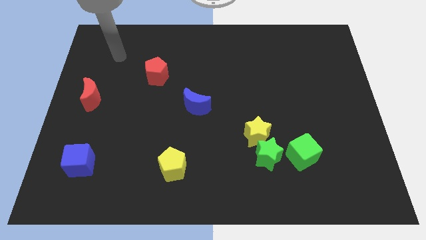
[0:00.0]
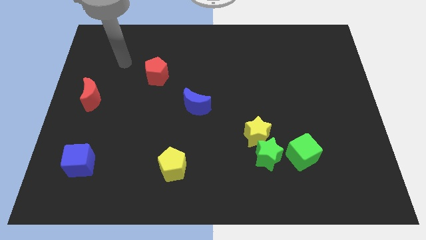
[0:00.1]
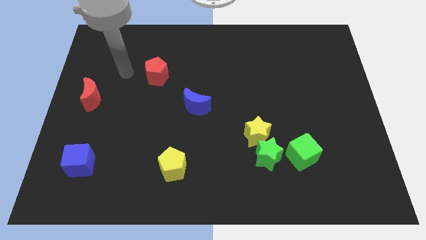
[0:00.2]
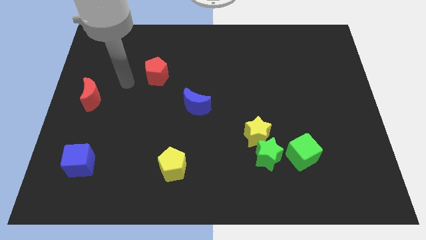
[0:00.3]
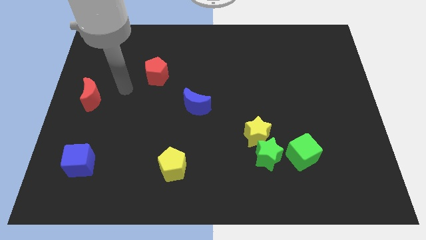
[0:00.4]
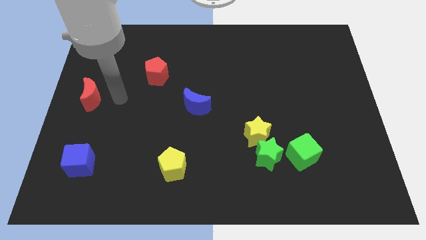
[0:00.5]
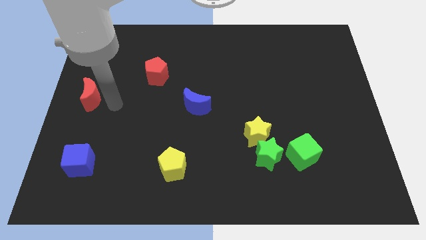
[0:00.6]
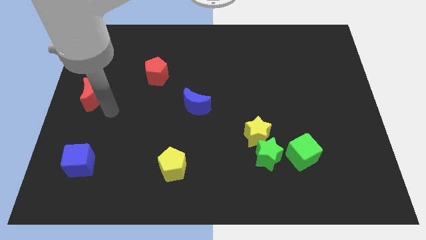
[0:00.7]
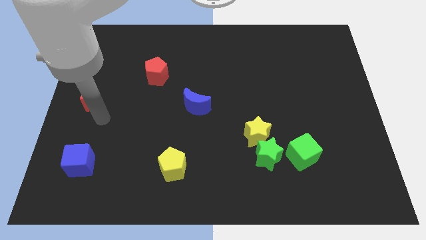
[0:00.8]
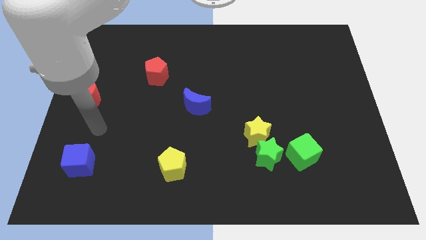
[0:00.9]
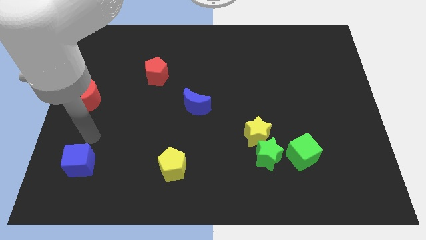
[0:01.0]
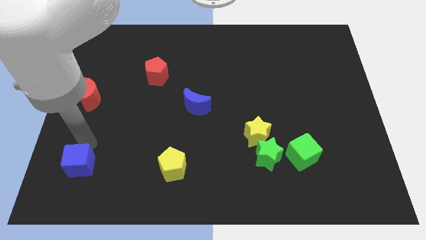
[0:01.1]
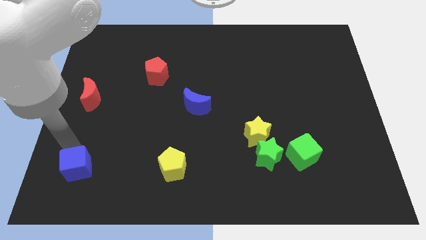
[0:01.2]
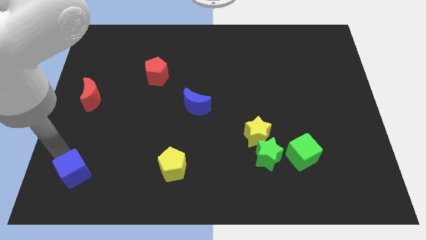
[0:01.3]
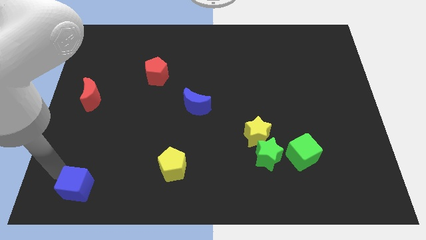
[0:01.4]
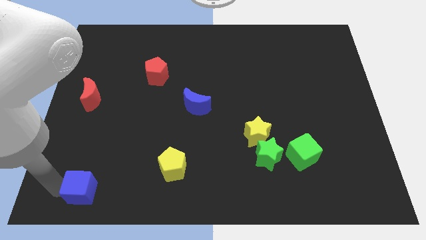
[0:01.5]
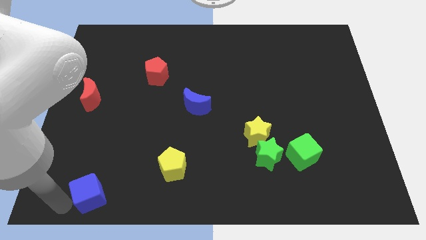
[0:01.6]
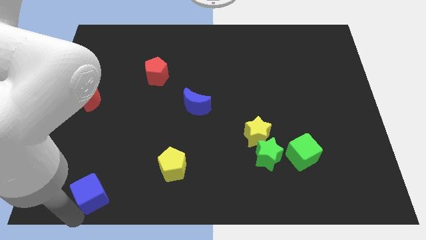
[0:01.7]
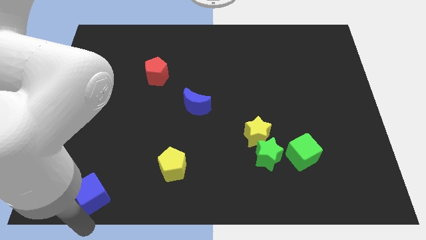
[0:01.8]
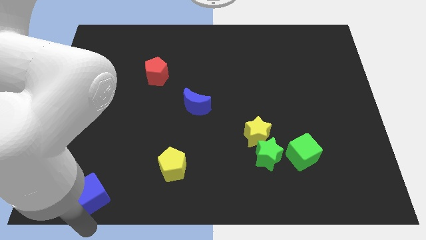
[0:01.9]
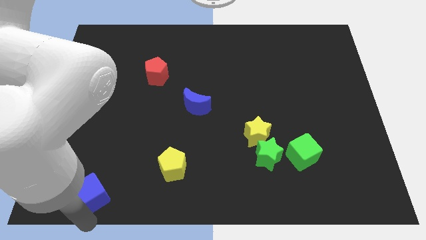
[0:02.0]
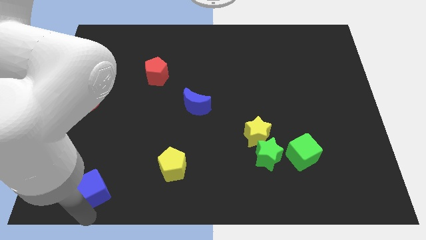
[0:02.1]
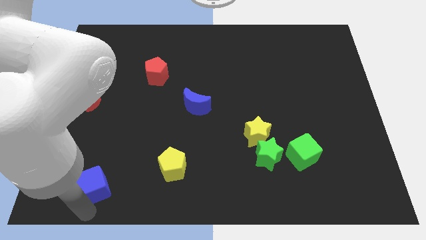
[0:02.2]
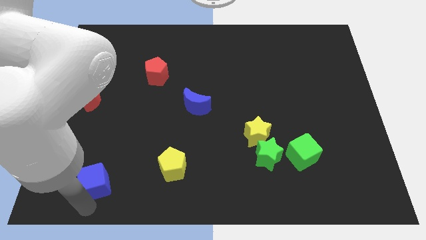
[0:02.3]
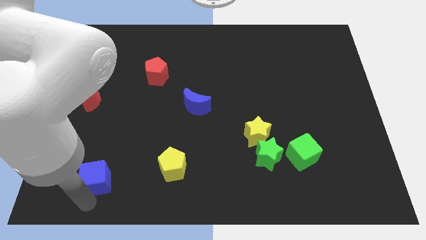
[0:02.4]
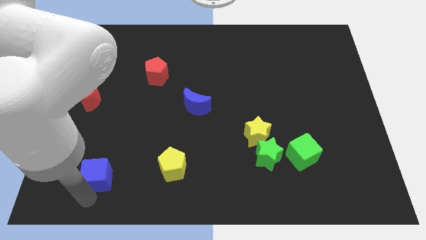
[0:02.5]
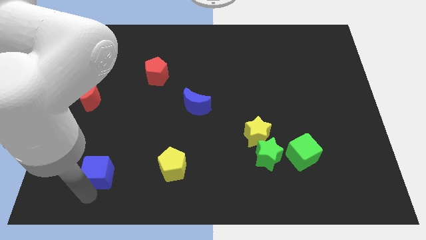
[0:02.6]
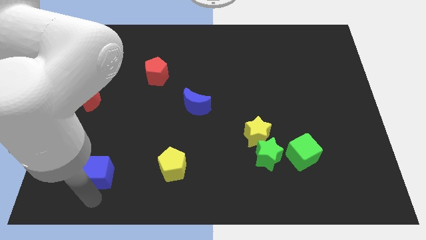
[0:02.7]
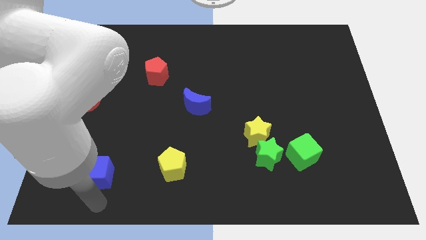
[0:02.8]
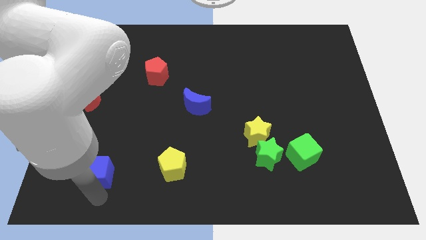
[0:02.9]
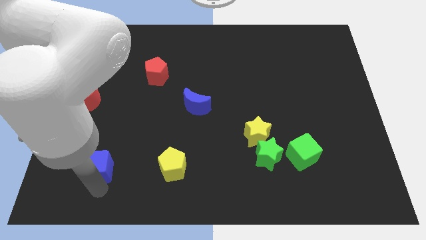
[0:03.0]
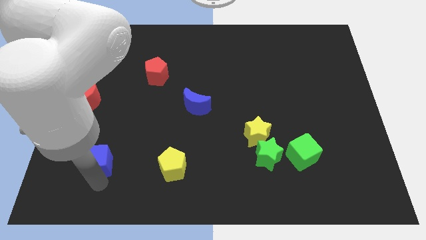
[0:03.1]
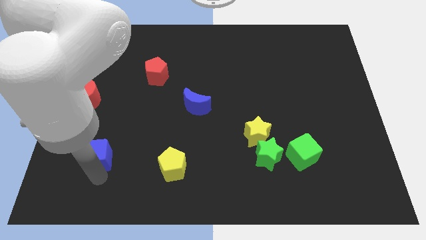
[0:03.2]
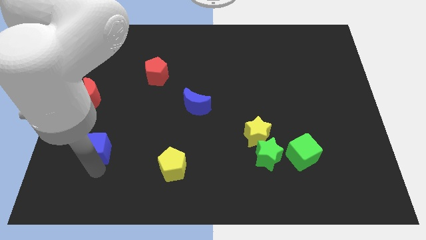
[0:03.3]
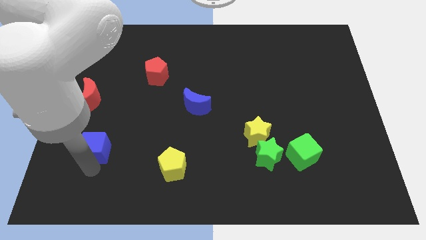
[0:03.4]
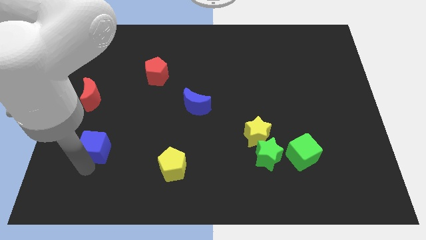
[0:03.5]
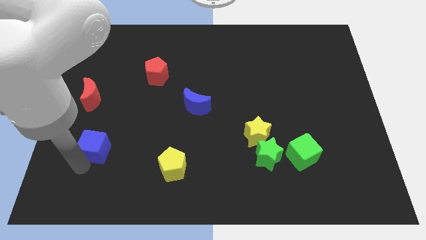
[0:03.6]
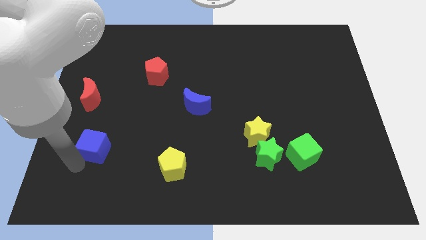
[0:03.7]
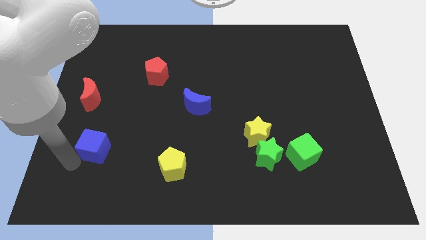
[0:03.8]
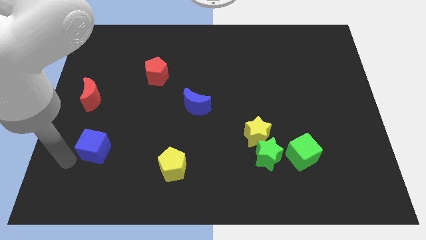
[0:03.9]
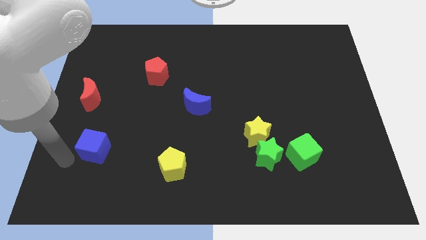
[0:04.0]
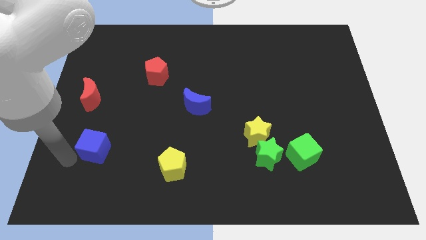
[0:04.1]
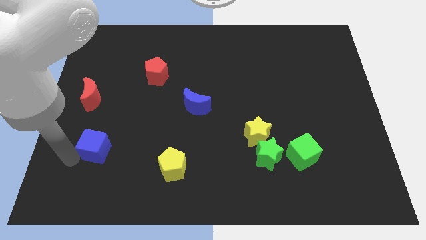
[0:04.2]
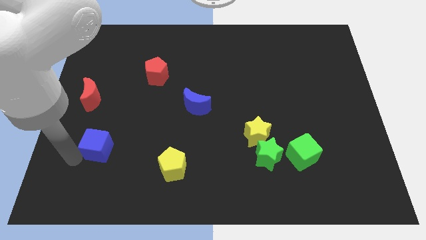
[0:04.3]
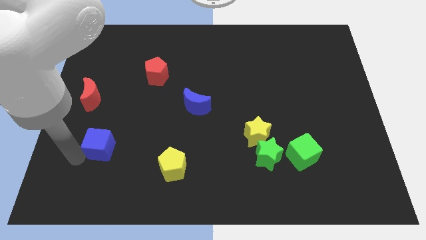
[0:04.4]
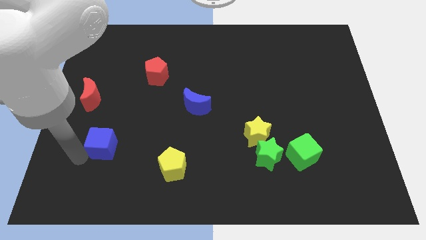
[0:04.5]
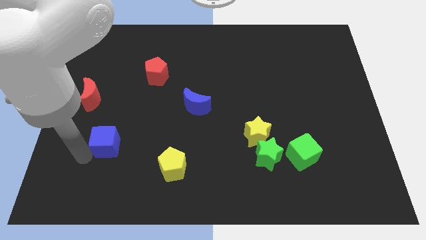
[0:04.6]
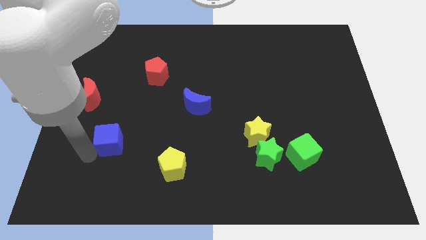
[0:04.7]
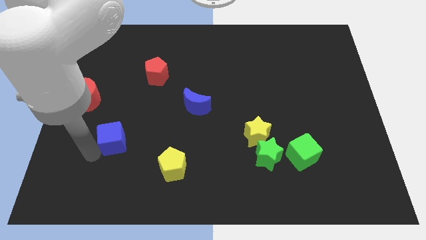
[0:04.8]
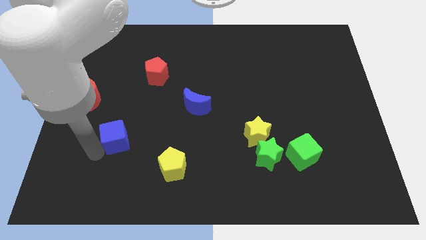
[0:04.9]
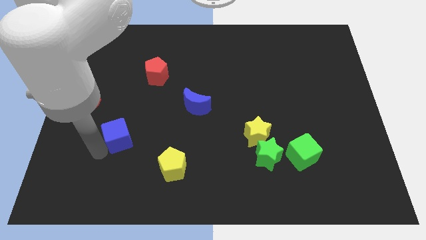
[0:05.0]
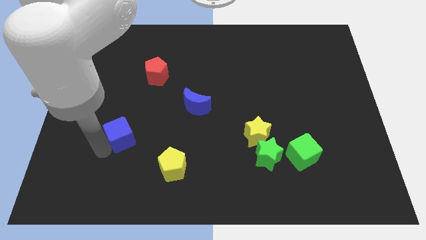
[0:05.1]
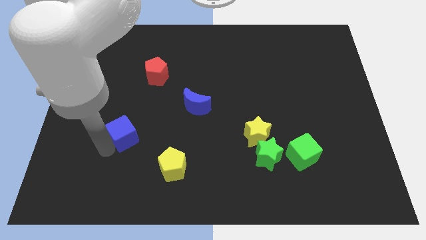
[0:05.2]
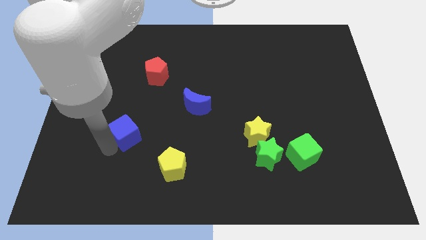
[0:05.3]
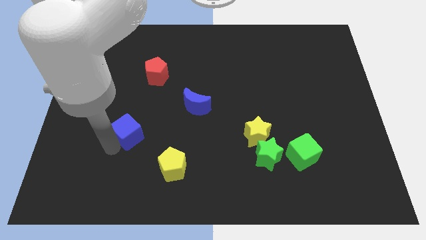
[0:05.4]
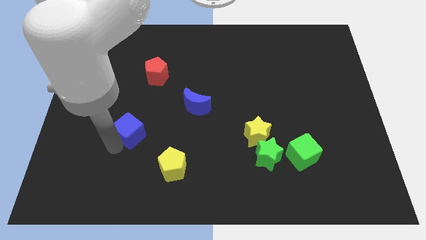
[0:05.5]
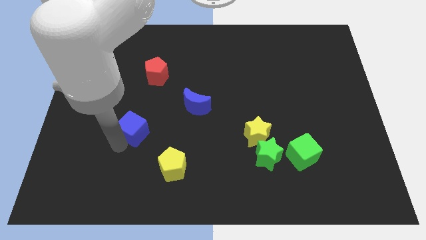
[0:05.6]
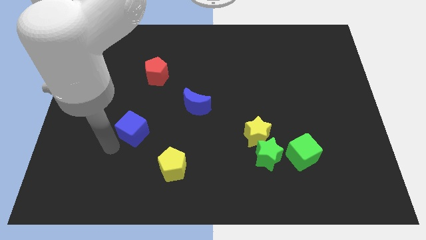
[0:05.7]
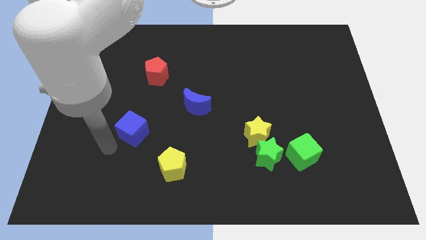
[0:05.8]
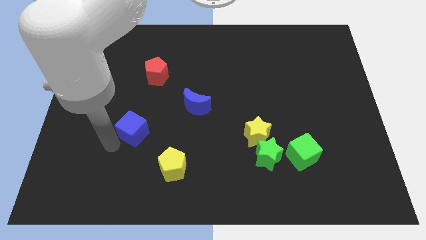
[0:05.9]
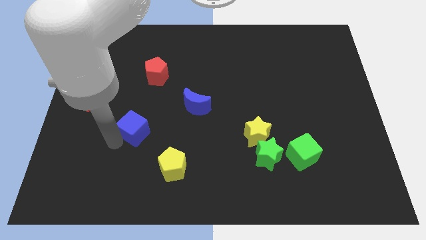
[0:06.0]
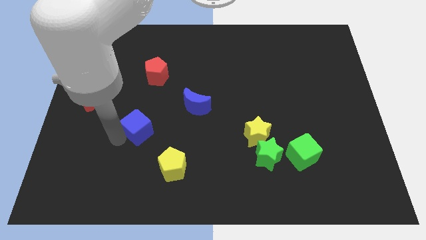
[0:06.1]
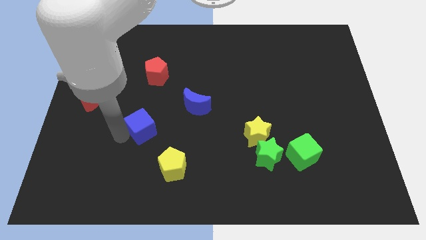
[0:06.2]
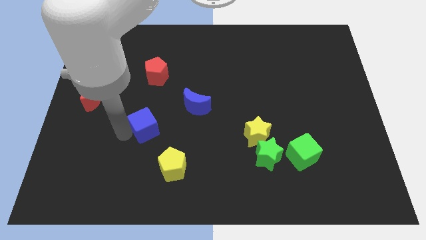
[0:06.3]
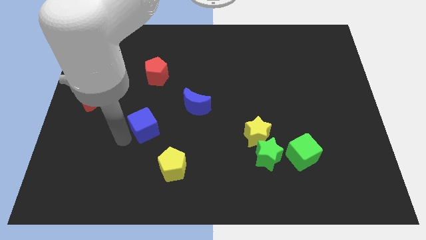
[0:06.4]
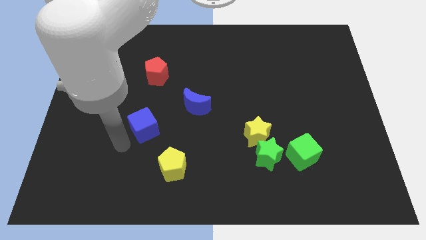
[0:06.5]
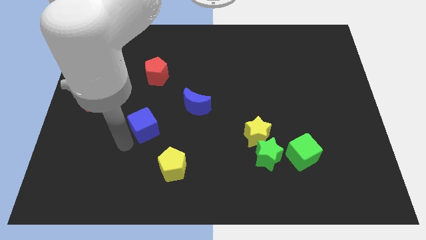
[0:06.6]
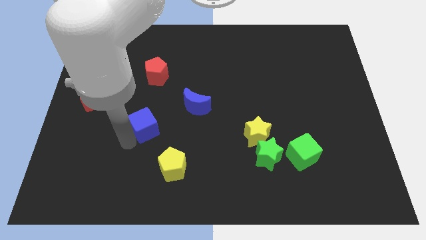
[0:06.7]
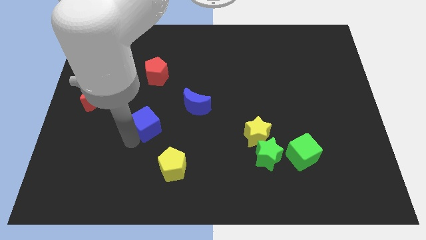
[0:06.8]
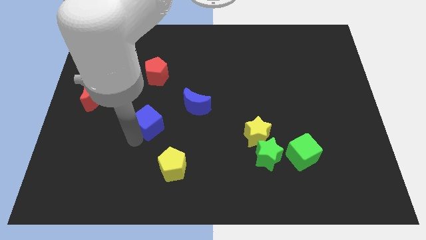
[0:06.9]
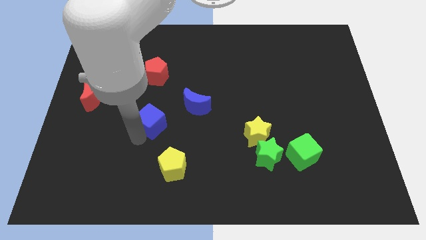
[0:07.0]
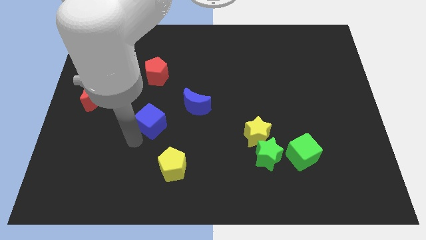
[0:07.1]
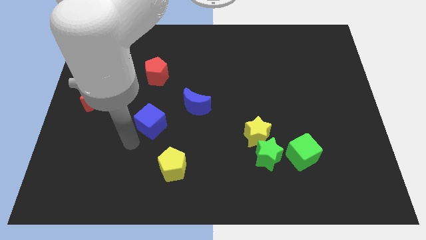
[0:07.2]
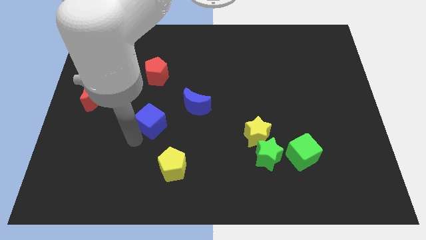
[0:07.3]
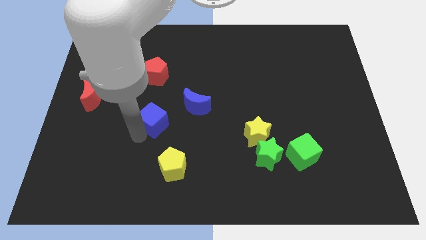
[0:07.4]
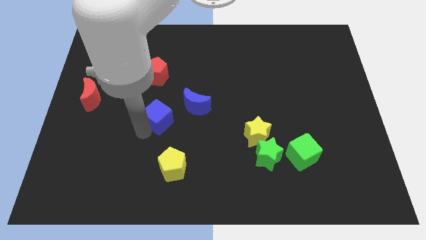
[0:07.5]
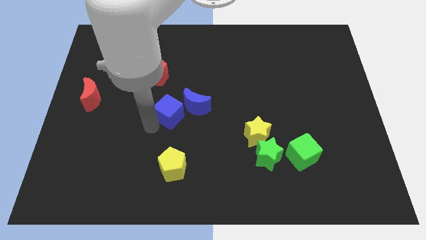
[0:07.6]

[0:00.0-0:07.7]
slide the blue cube upwards and then to the right
